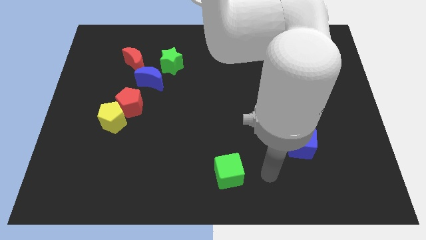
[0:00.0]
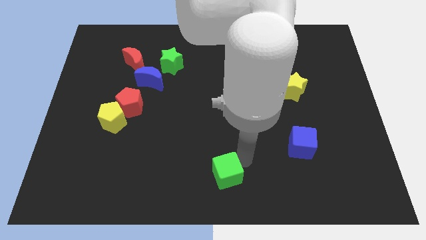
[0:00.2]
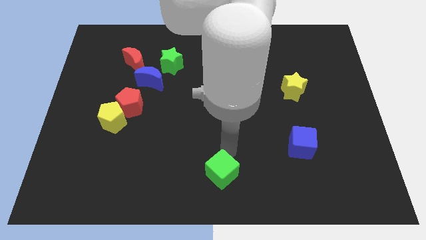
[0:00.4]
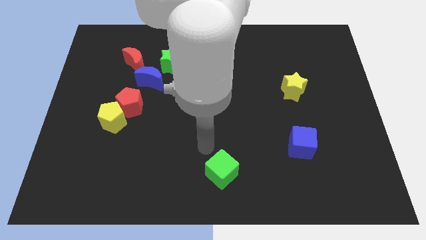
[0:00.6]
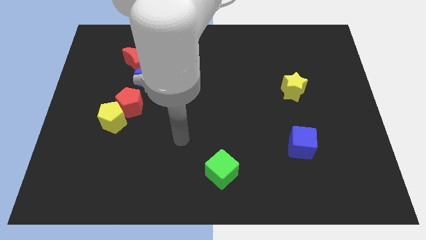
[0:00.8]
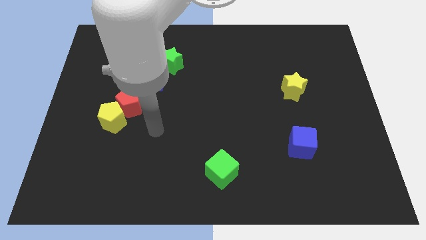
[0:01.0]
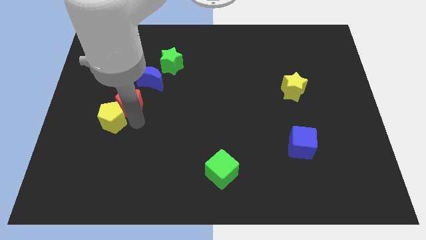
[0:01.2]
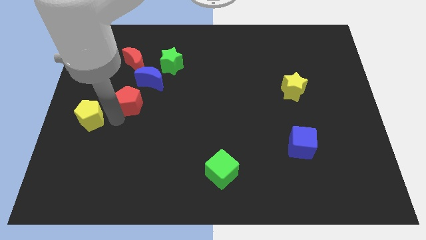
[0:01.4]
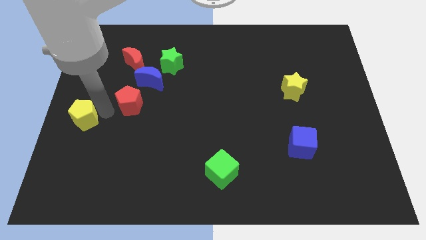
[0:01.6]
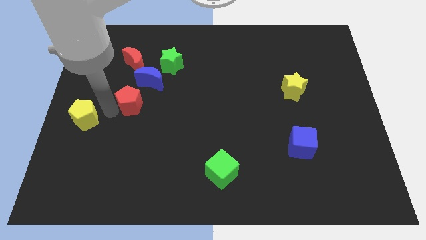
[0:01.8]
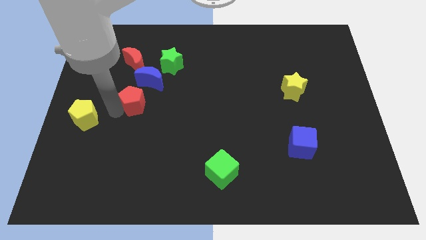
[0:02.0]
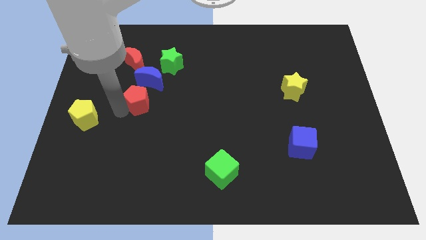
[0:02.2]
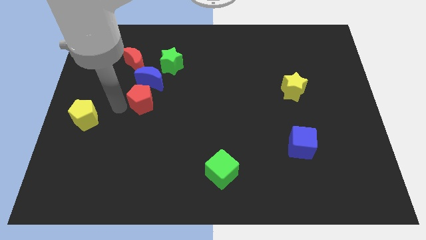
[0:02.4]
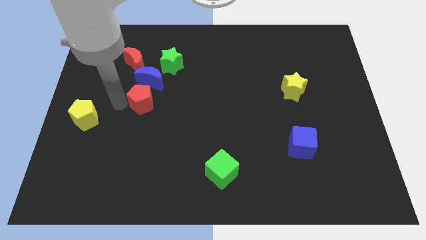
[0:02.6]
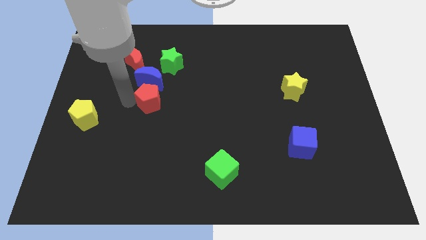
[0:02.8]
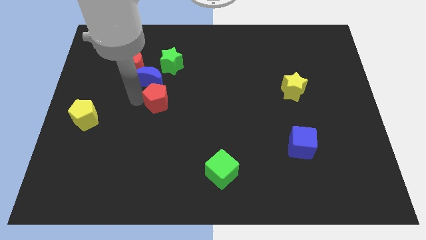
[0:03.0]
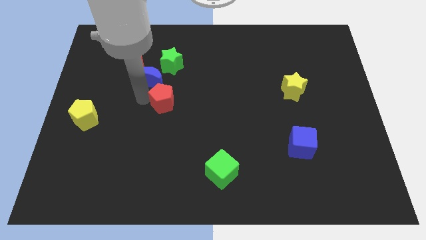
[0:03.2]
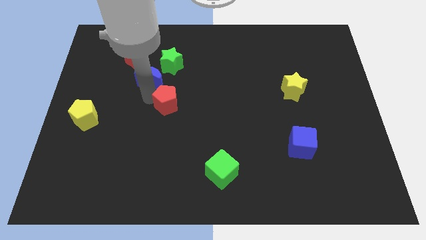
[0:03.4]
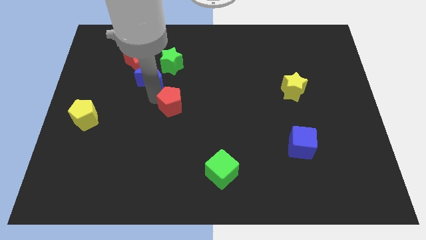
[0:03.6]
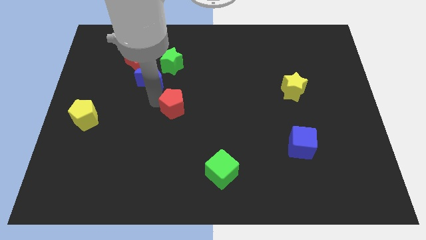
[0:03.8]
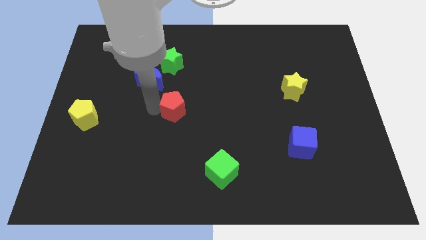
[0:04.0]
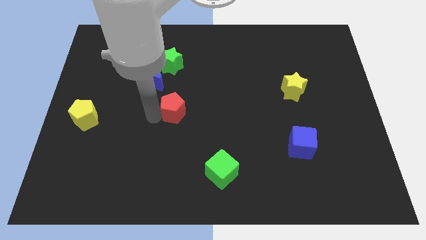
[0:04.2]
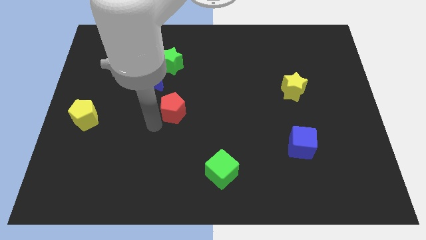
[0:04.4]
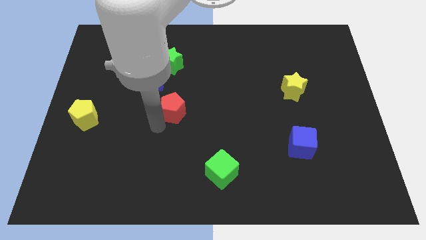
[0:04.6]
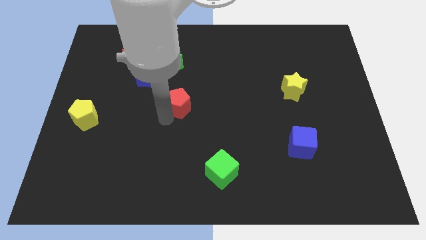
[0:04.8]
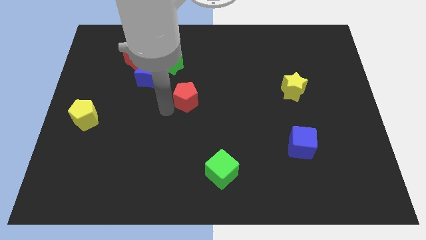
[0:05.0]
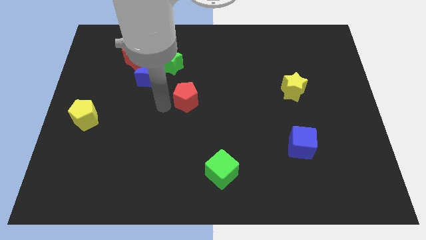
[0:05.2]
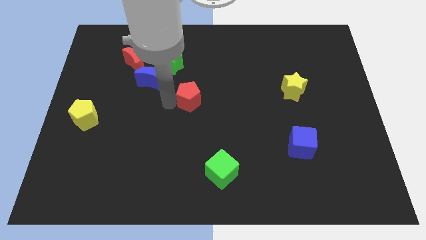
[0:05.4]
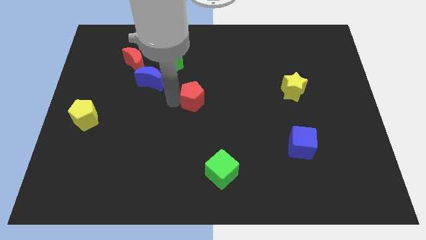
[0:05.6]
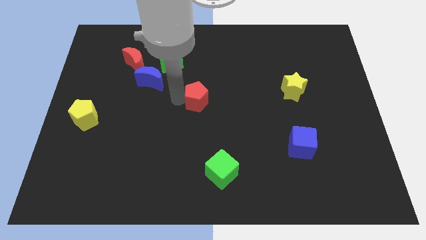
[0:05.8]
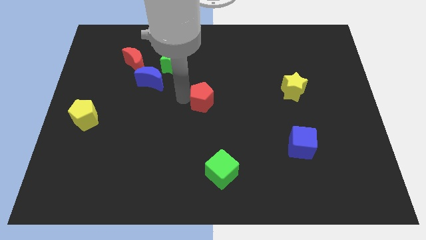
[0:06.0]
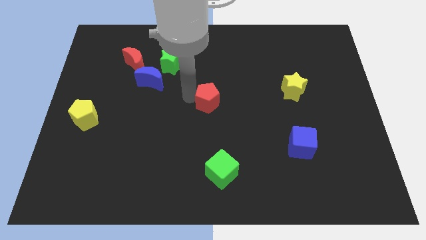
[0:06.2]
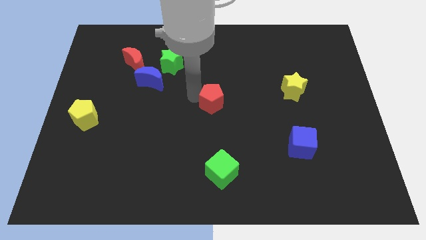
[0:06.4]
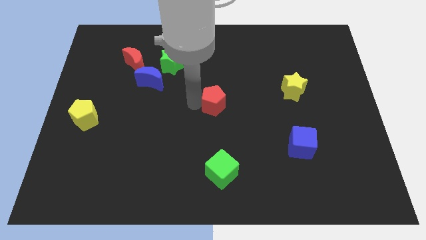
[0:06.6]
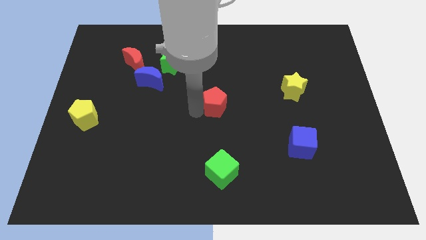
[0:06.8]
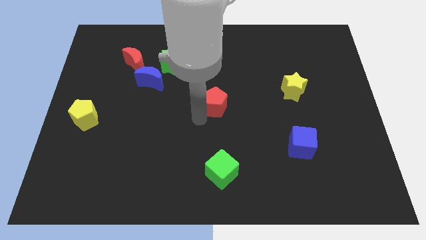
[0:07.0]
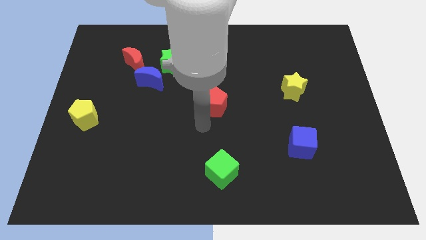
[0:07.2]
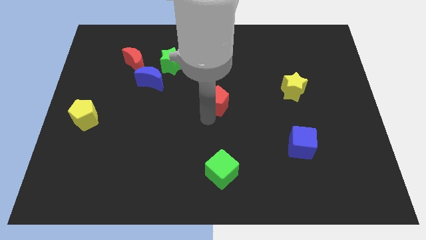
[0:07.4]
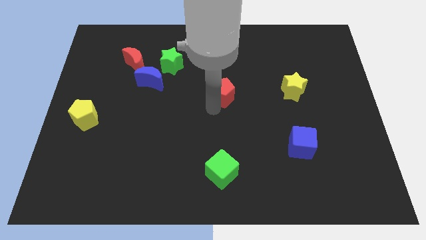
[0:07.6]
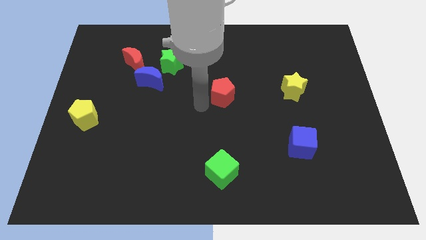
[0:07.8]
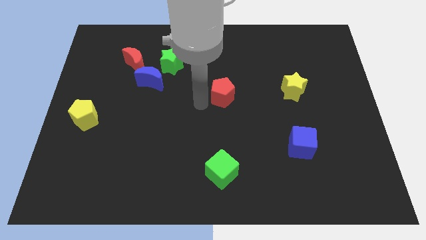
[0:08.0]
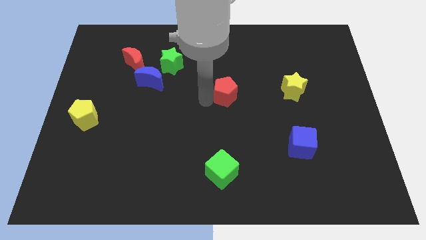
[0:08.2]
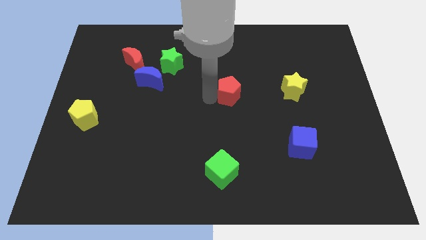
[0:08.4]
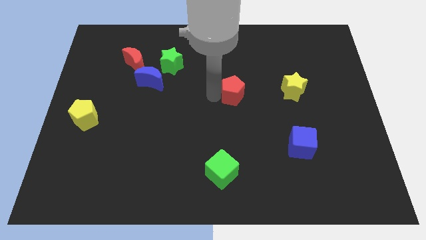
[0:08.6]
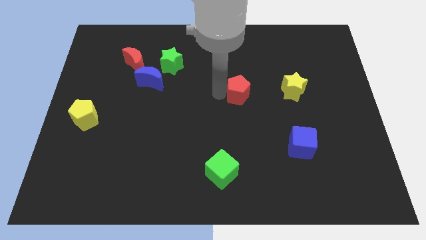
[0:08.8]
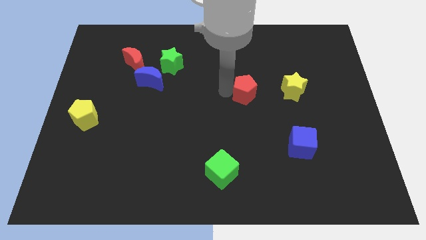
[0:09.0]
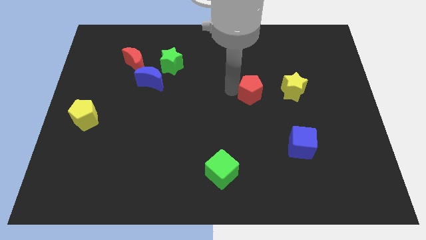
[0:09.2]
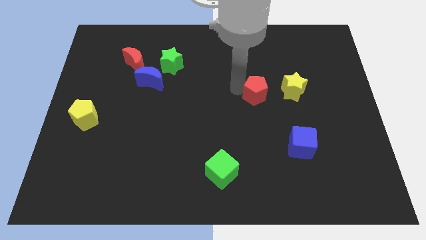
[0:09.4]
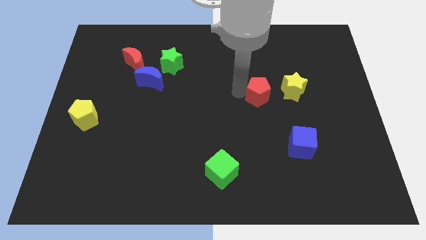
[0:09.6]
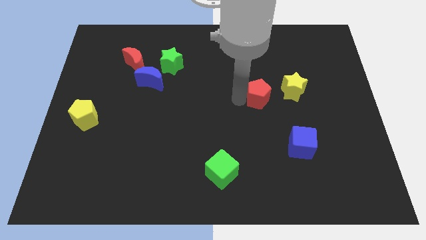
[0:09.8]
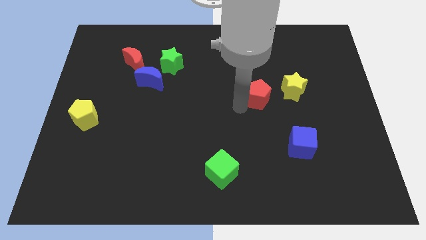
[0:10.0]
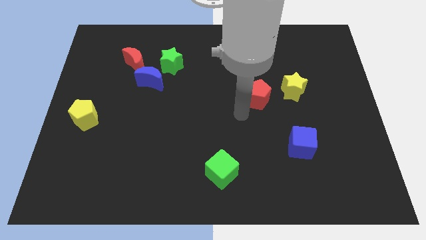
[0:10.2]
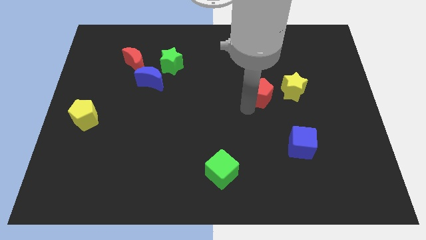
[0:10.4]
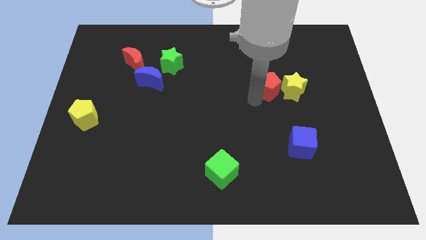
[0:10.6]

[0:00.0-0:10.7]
put the red pentagon close to the yellow star

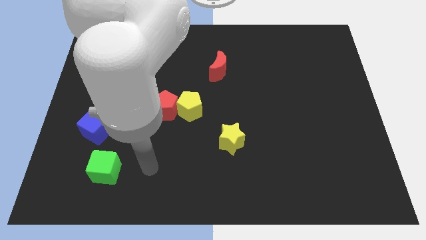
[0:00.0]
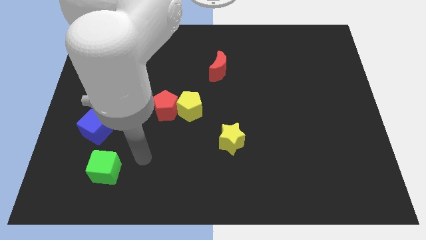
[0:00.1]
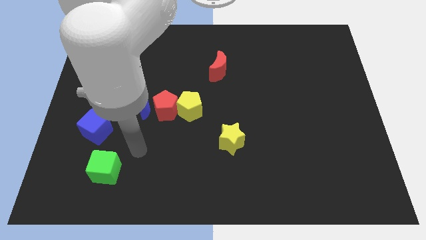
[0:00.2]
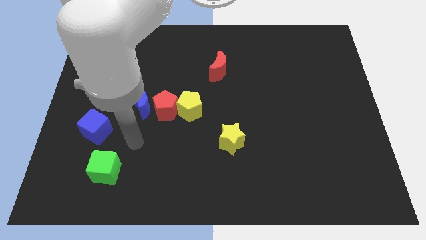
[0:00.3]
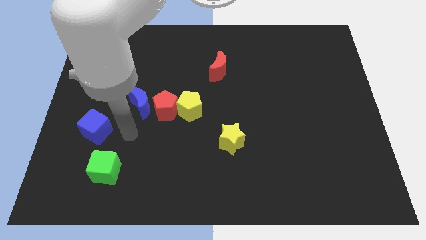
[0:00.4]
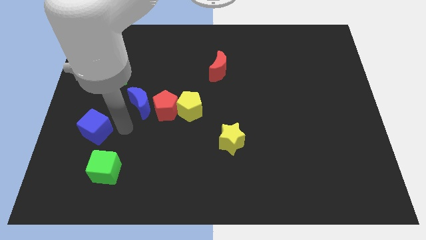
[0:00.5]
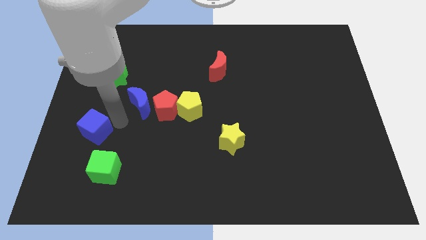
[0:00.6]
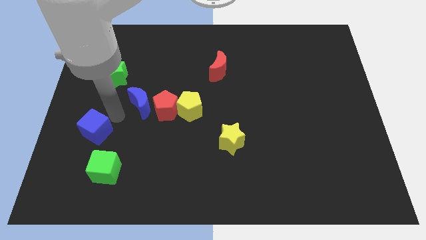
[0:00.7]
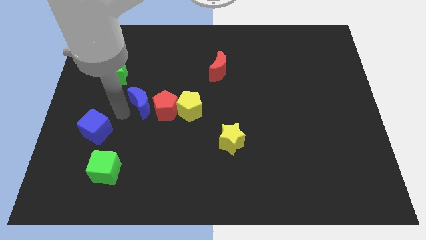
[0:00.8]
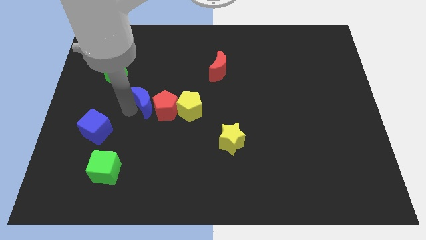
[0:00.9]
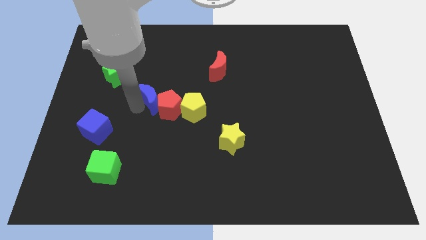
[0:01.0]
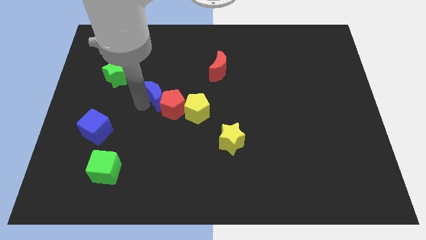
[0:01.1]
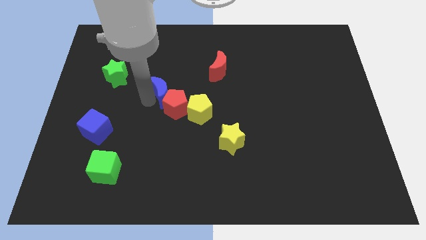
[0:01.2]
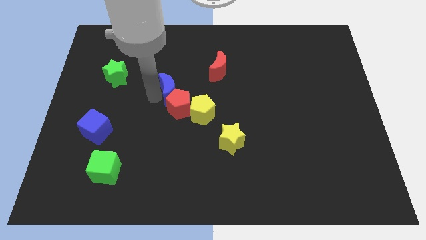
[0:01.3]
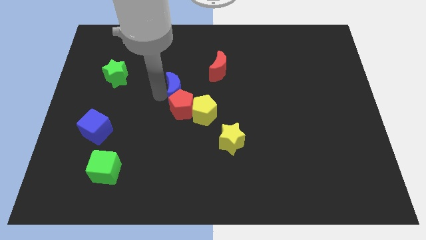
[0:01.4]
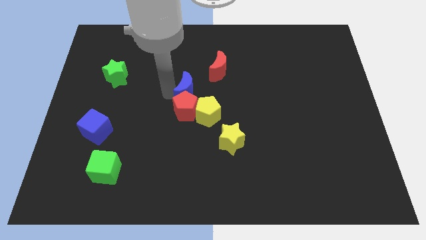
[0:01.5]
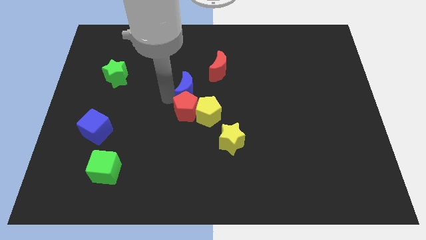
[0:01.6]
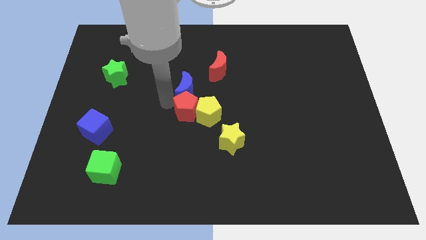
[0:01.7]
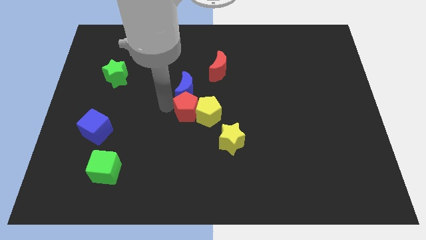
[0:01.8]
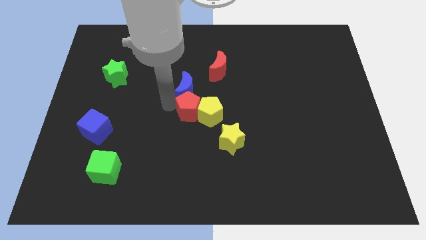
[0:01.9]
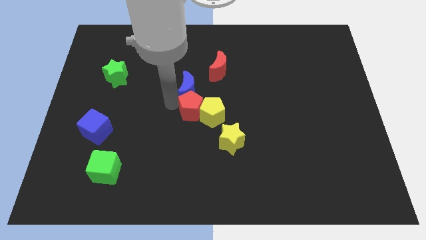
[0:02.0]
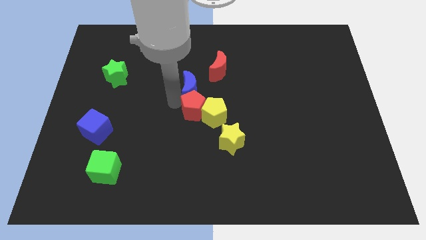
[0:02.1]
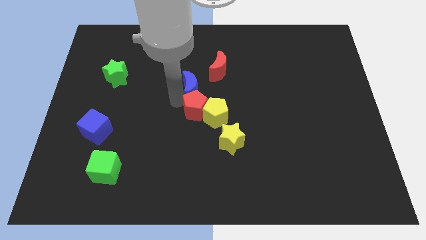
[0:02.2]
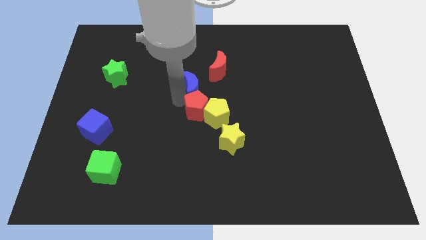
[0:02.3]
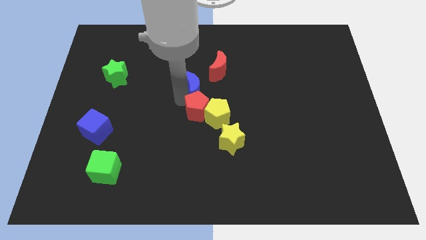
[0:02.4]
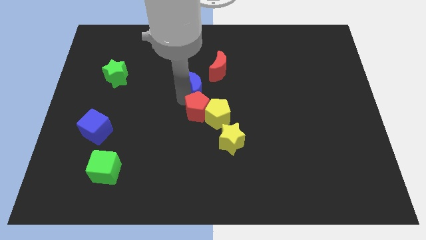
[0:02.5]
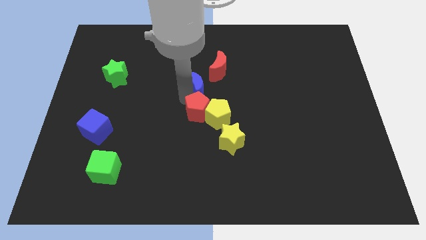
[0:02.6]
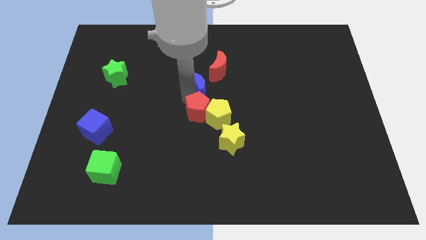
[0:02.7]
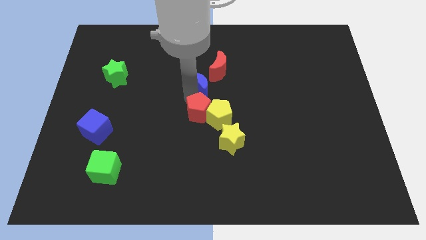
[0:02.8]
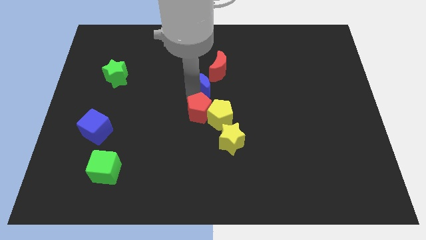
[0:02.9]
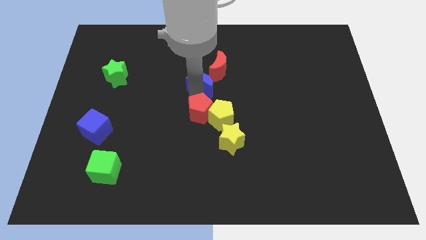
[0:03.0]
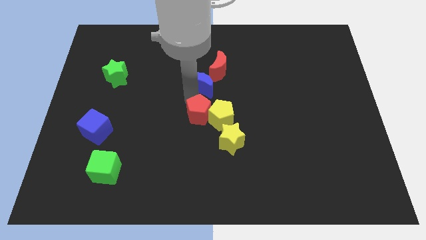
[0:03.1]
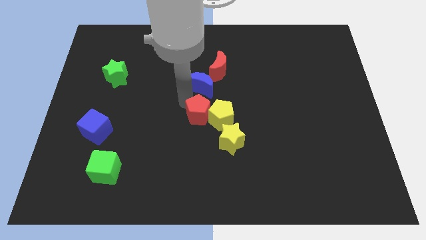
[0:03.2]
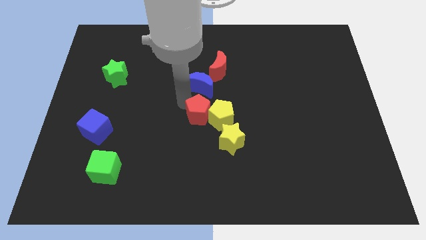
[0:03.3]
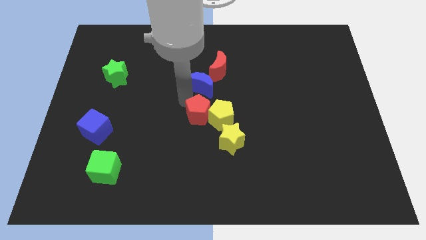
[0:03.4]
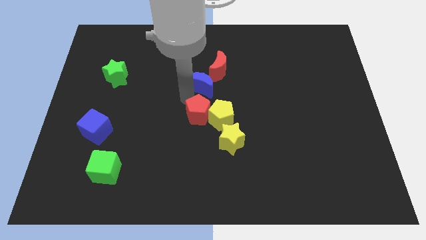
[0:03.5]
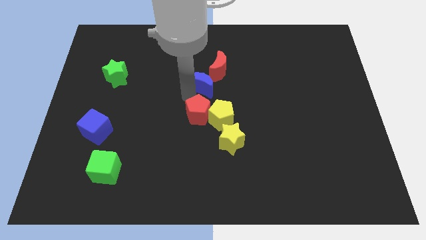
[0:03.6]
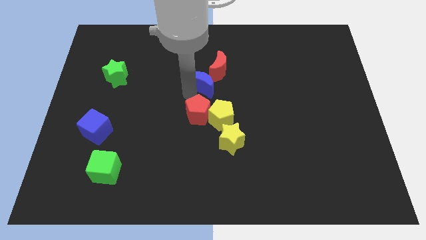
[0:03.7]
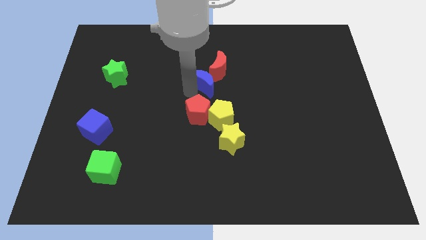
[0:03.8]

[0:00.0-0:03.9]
move the blue moon next to the red moon
